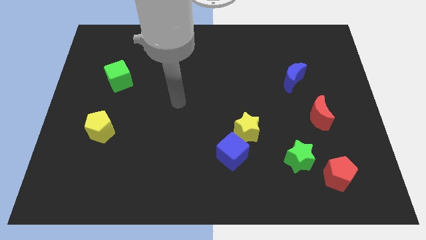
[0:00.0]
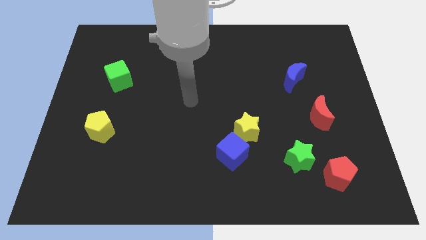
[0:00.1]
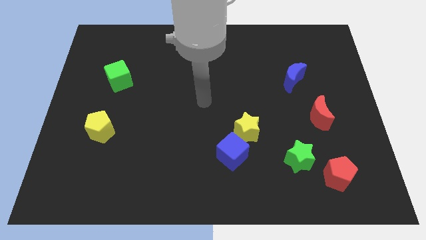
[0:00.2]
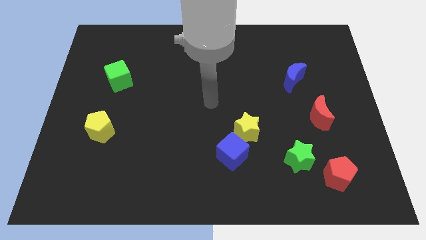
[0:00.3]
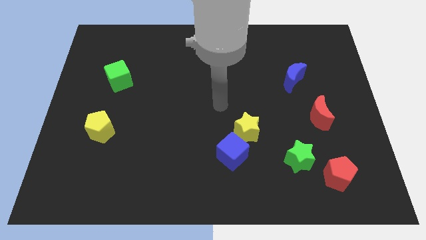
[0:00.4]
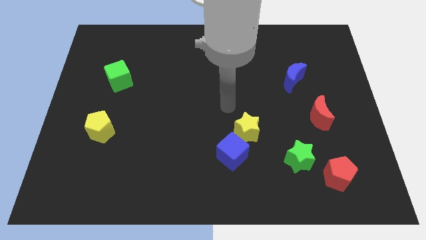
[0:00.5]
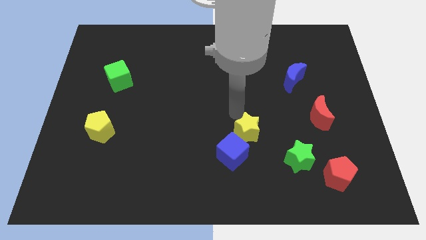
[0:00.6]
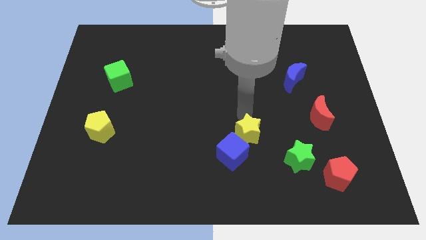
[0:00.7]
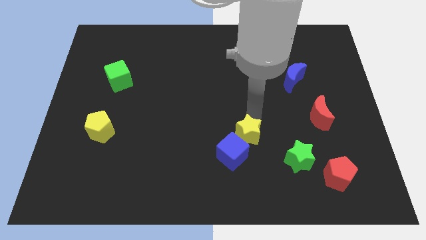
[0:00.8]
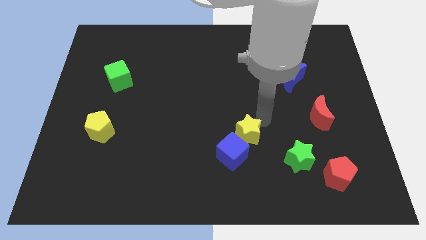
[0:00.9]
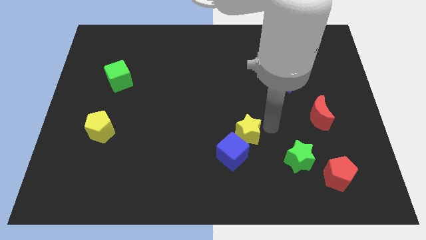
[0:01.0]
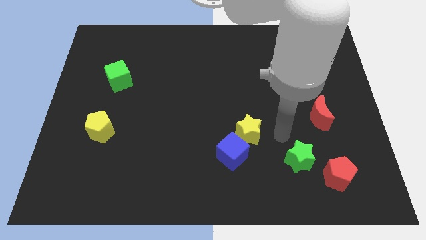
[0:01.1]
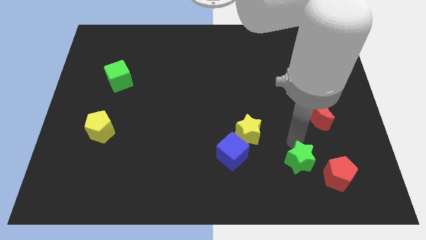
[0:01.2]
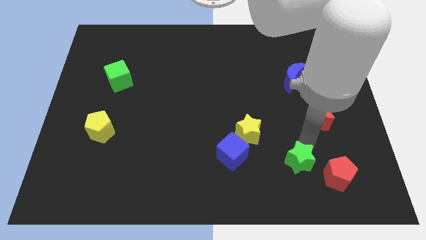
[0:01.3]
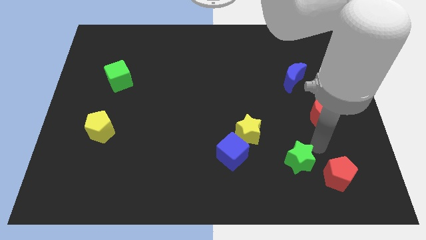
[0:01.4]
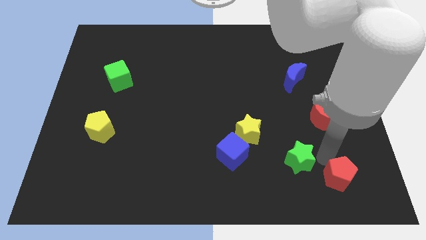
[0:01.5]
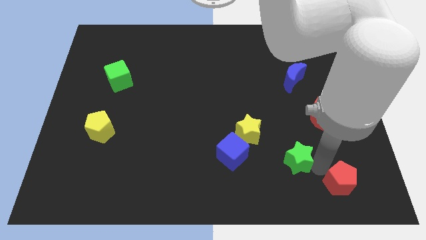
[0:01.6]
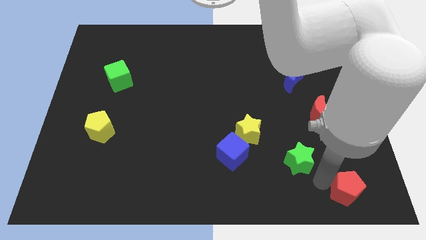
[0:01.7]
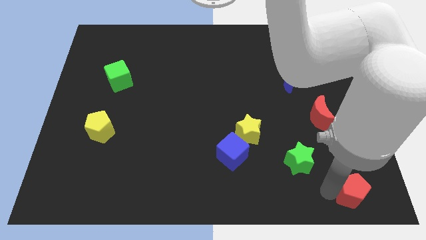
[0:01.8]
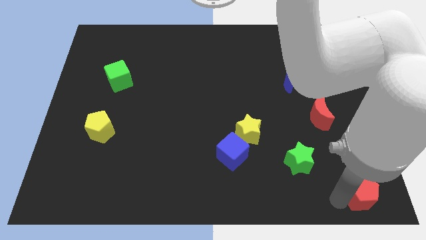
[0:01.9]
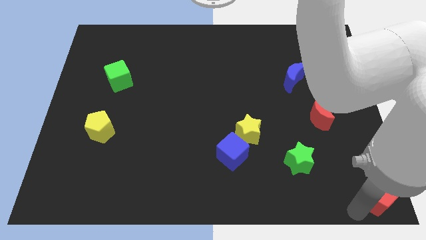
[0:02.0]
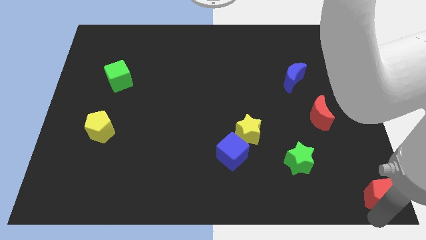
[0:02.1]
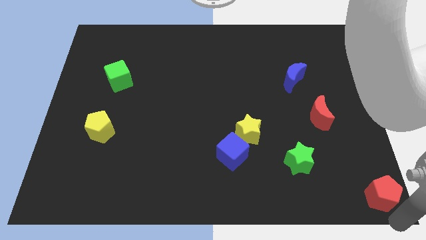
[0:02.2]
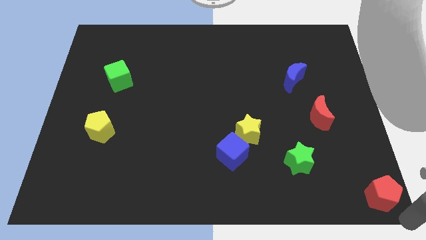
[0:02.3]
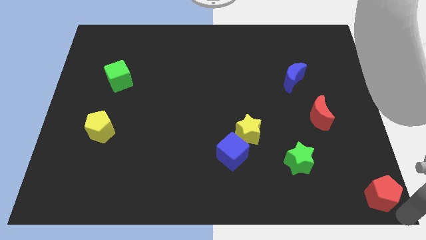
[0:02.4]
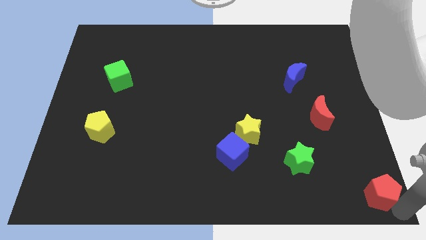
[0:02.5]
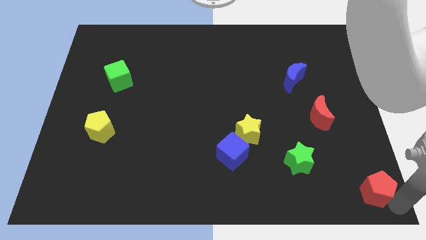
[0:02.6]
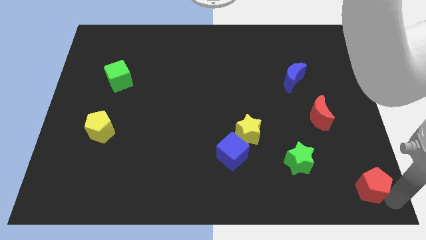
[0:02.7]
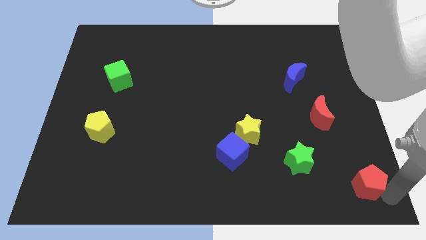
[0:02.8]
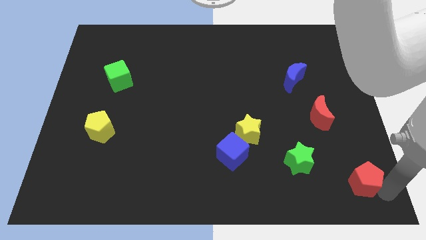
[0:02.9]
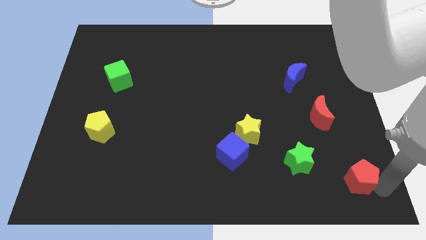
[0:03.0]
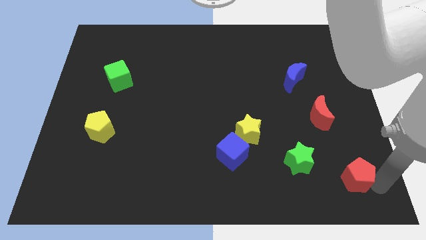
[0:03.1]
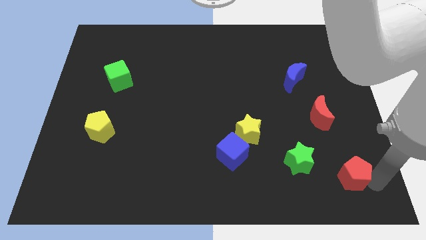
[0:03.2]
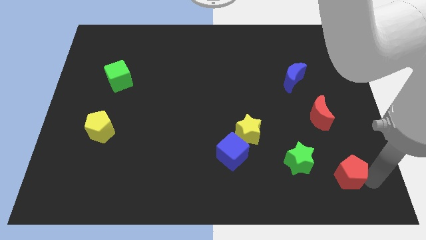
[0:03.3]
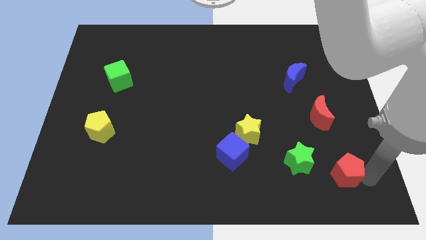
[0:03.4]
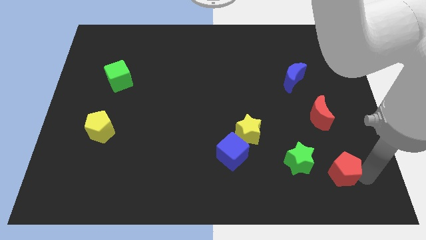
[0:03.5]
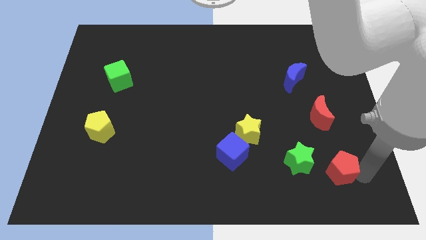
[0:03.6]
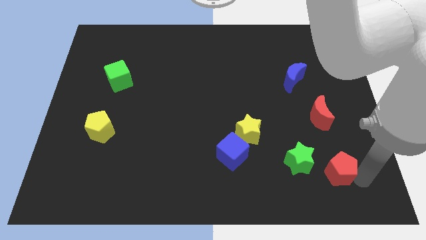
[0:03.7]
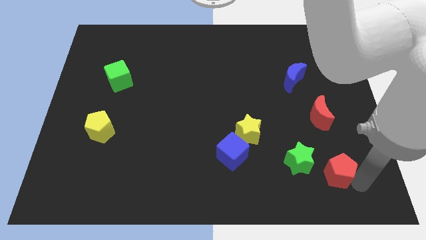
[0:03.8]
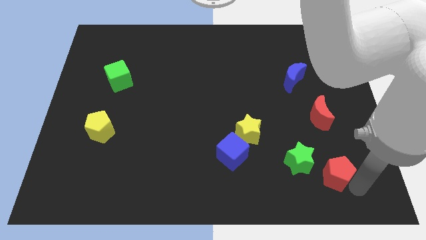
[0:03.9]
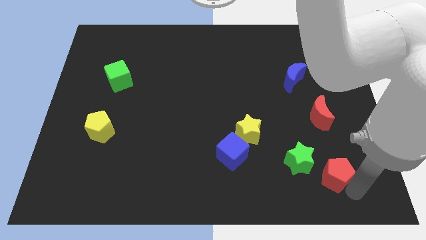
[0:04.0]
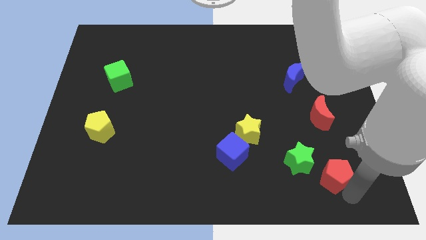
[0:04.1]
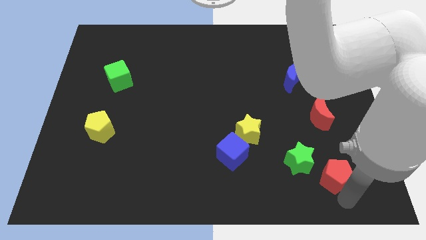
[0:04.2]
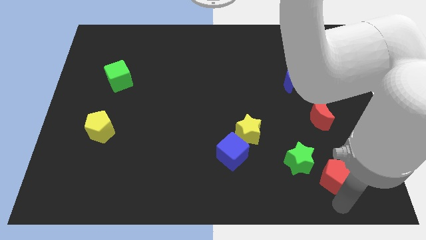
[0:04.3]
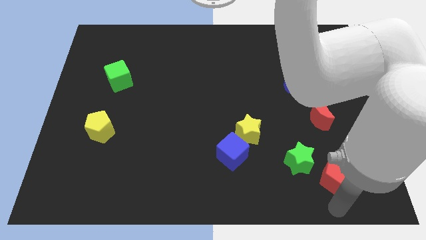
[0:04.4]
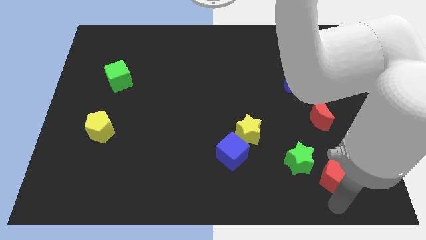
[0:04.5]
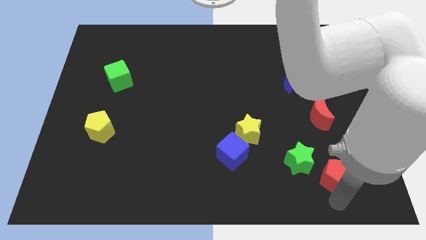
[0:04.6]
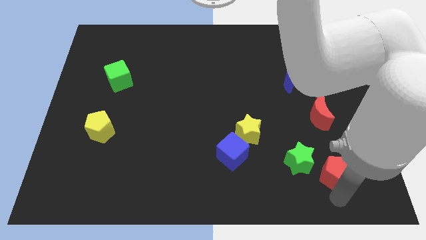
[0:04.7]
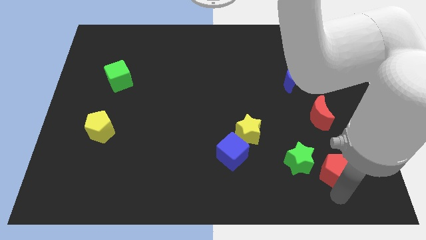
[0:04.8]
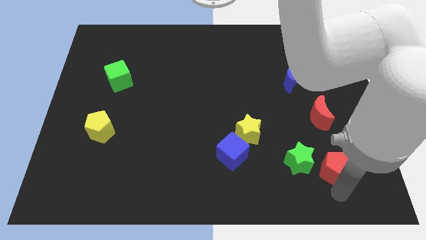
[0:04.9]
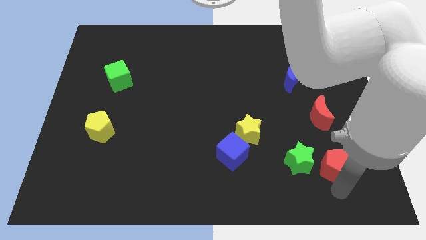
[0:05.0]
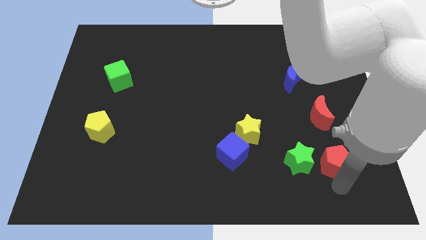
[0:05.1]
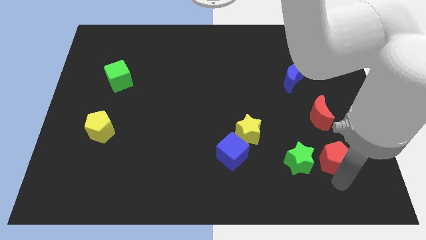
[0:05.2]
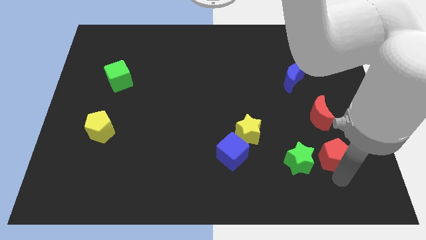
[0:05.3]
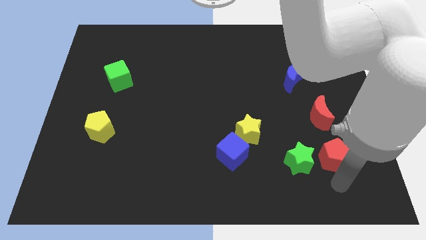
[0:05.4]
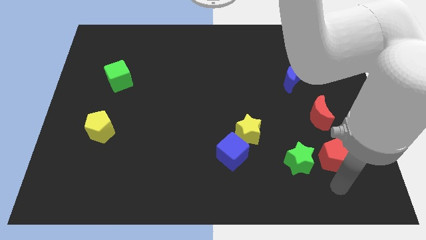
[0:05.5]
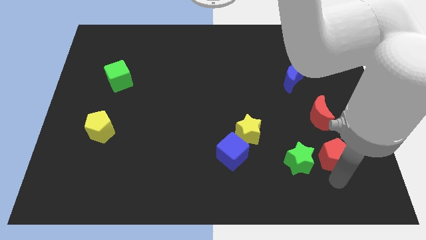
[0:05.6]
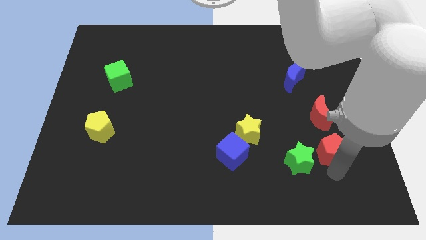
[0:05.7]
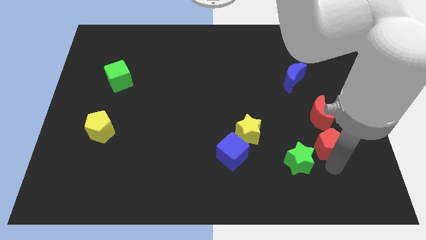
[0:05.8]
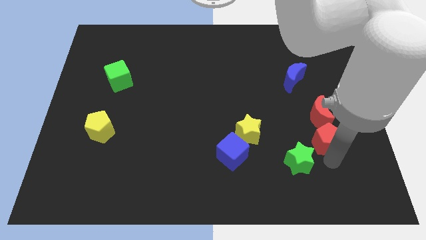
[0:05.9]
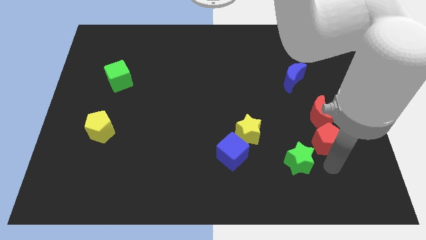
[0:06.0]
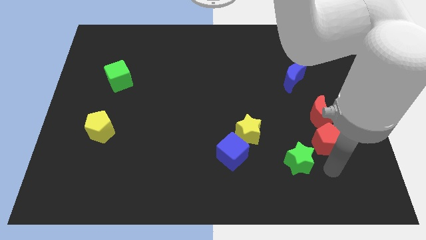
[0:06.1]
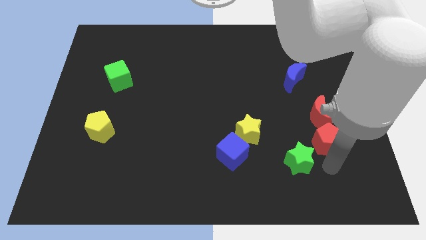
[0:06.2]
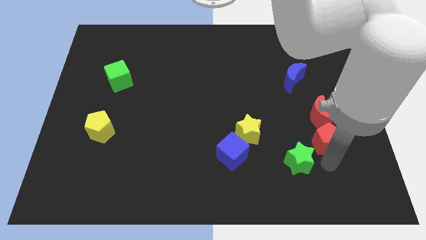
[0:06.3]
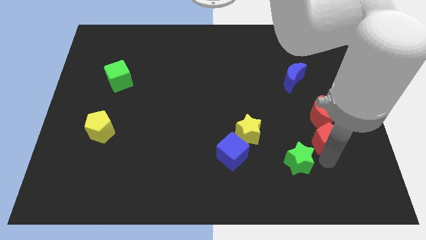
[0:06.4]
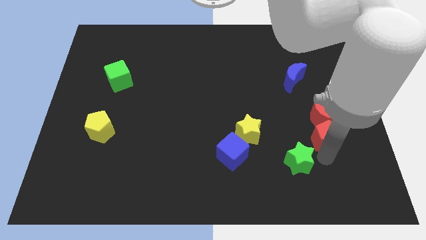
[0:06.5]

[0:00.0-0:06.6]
slide the red pentagon close to the red moon
